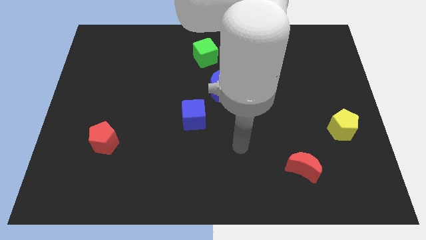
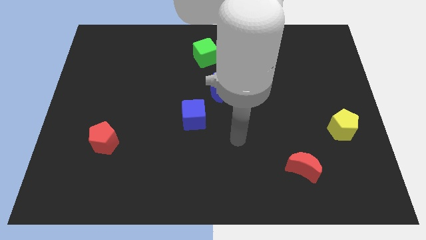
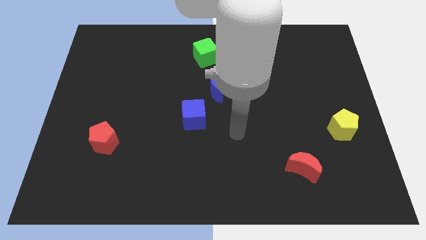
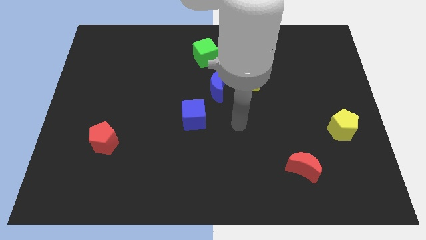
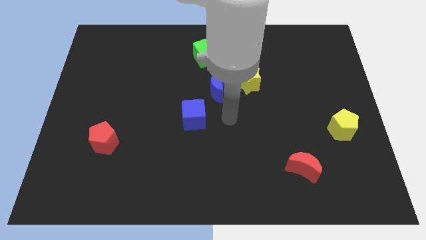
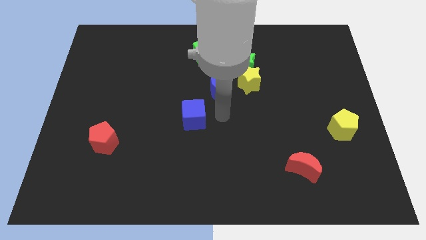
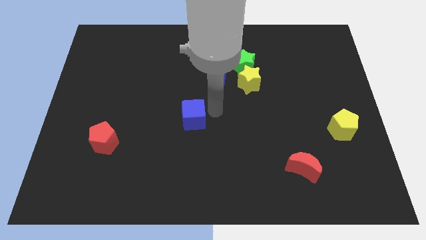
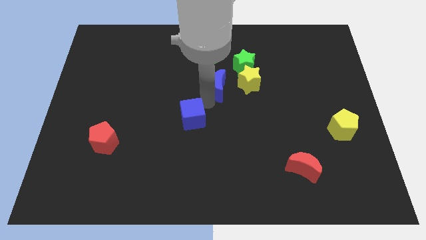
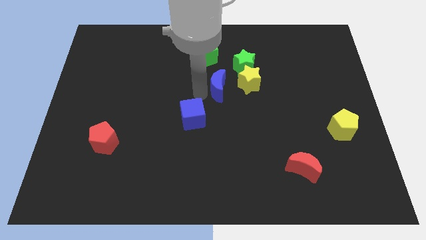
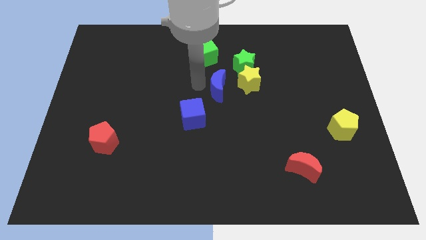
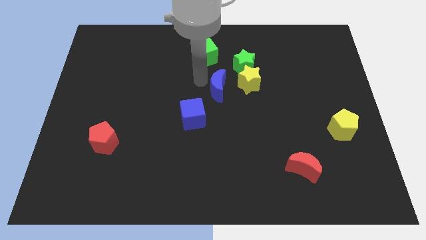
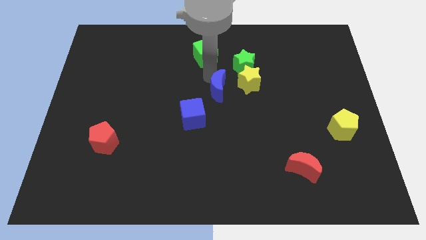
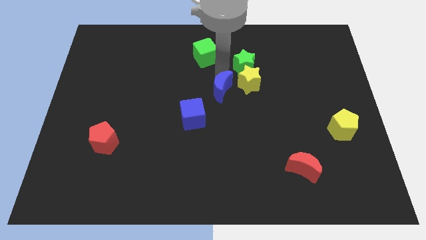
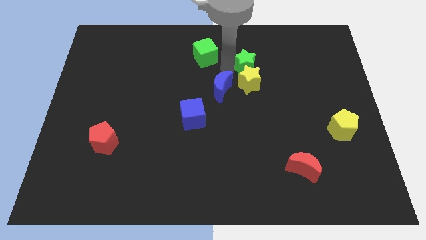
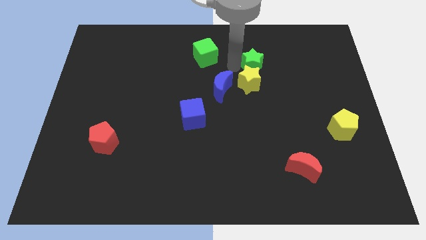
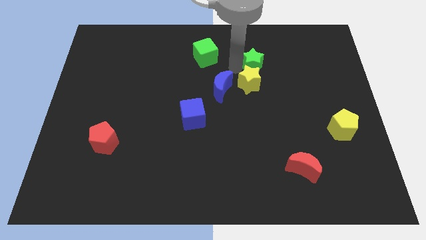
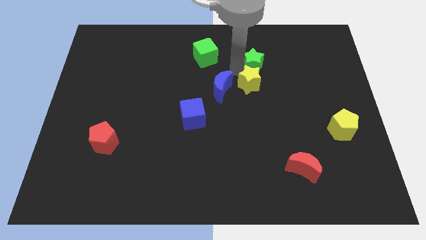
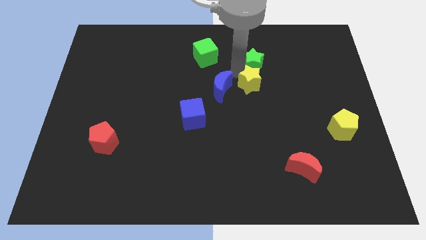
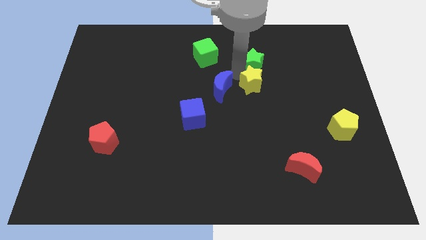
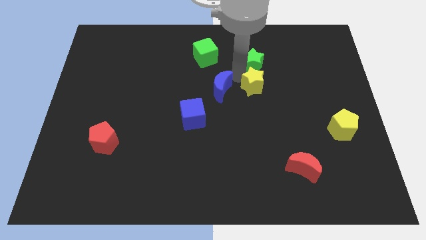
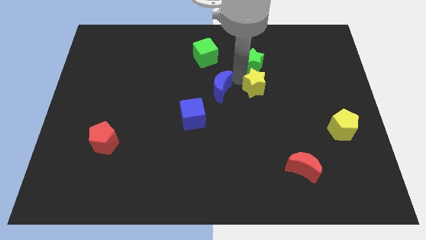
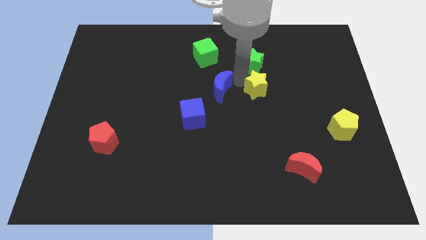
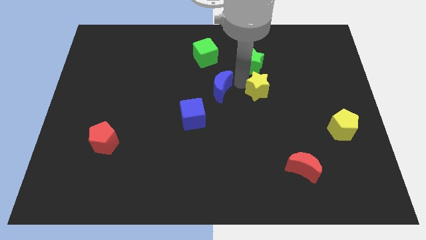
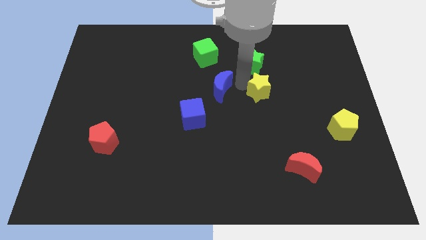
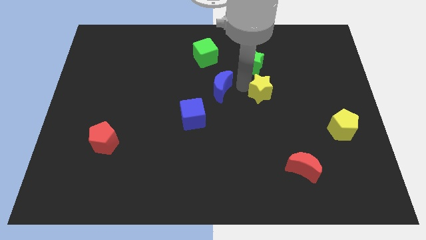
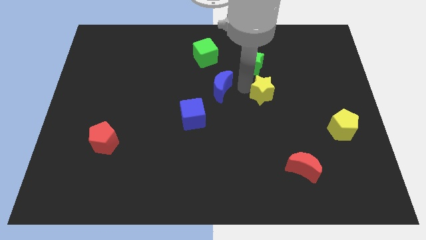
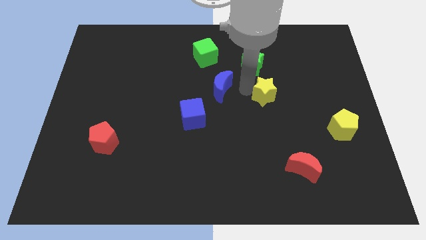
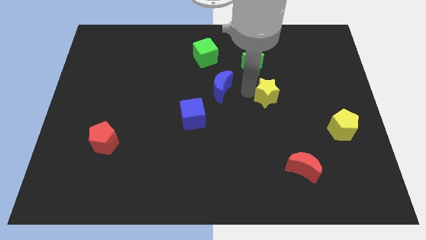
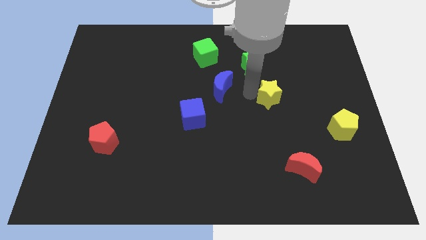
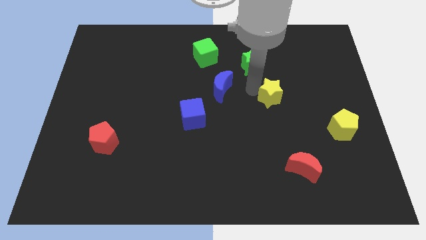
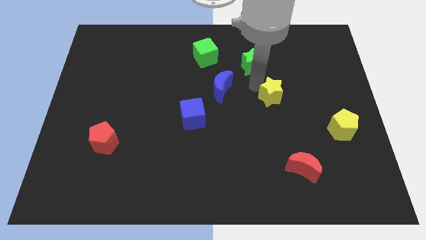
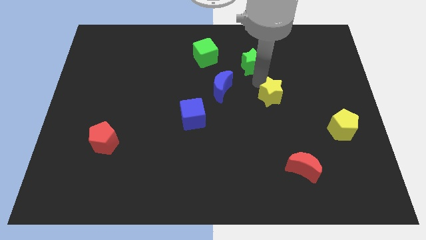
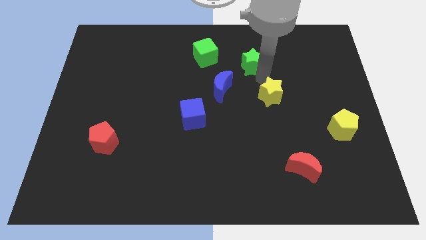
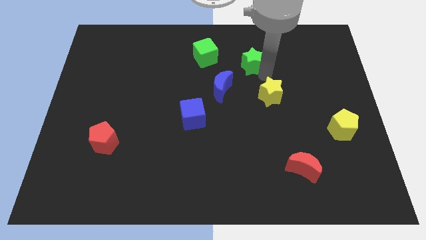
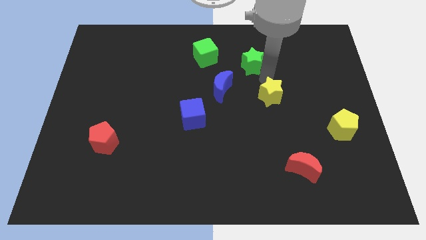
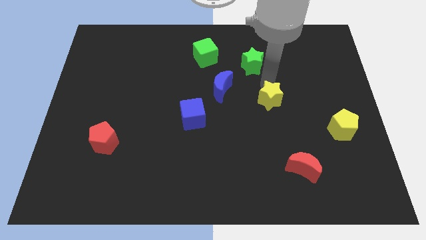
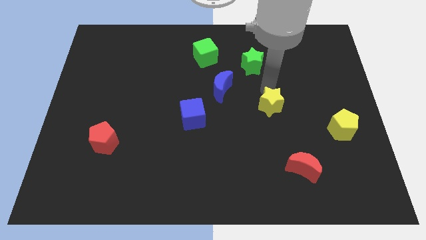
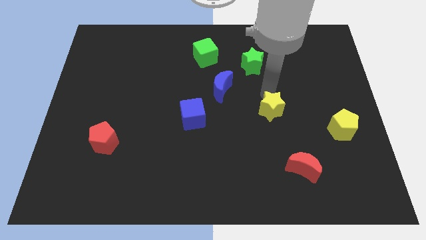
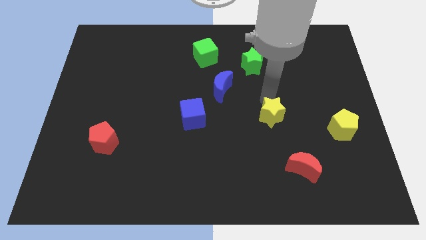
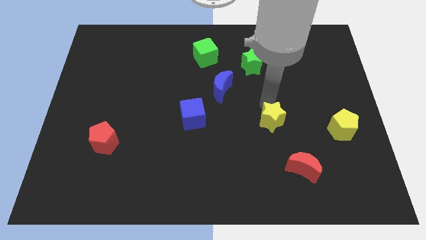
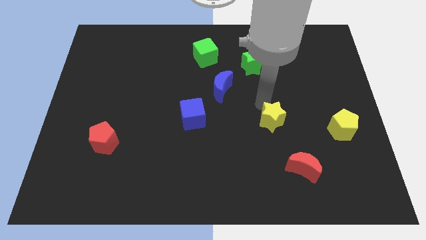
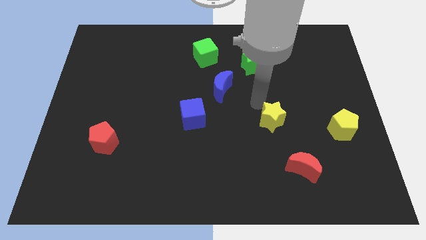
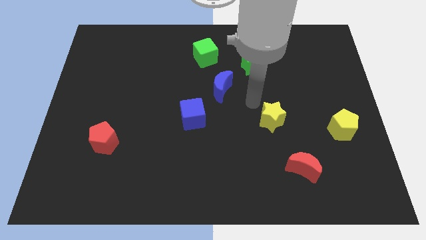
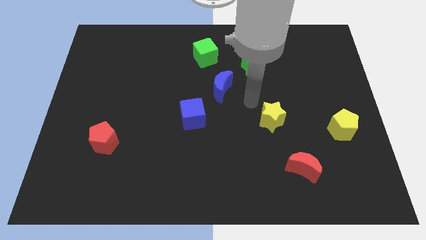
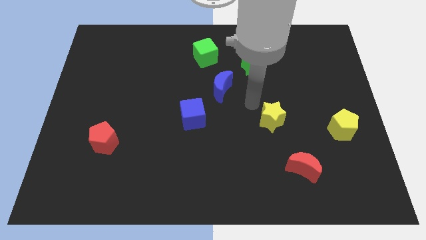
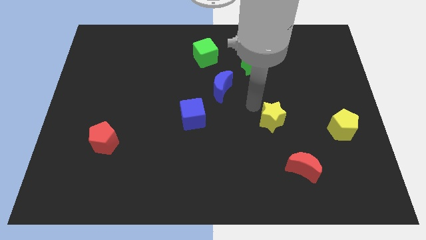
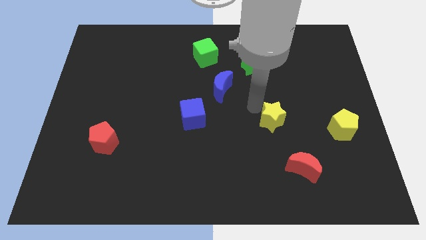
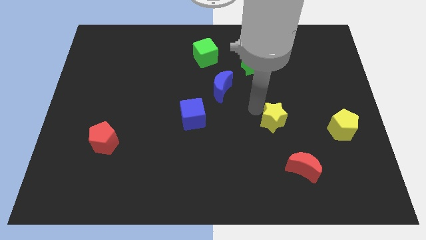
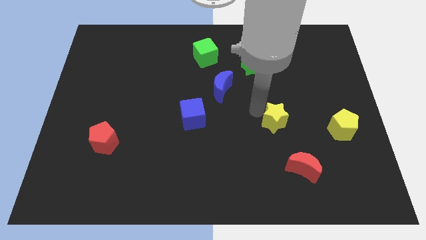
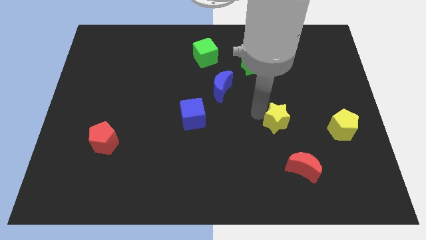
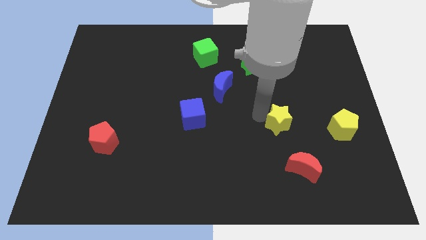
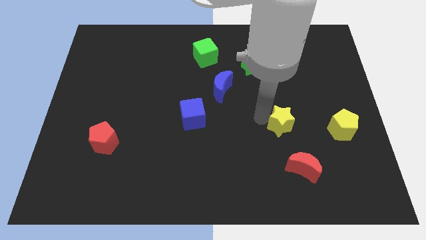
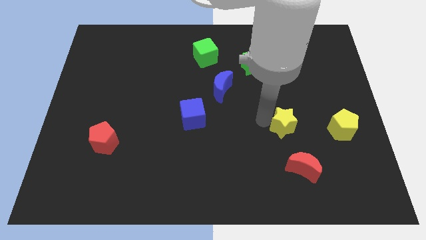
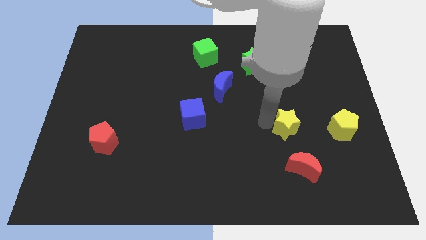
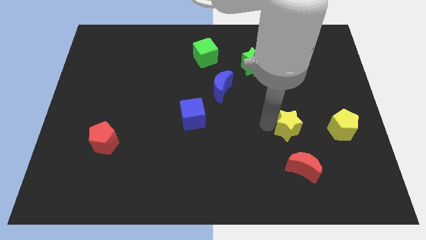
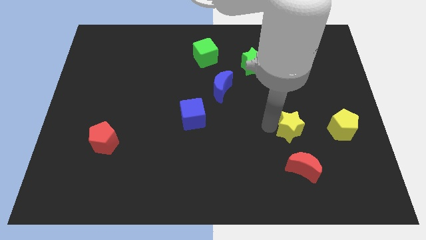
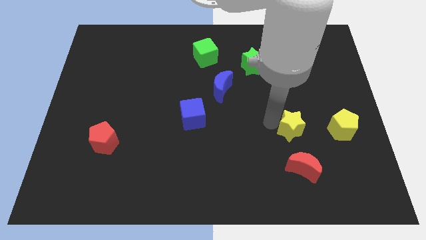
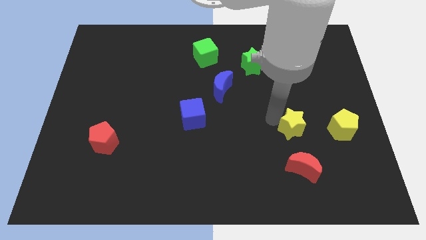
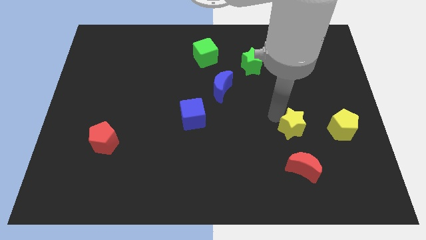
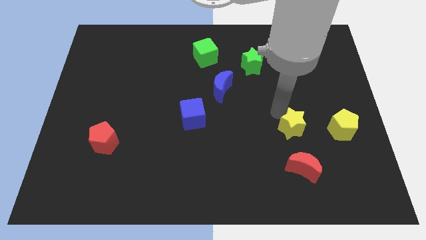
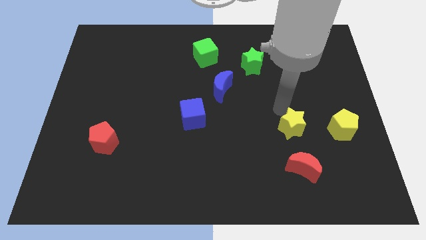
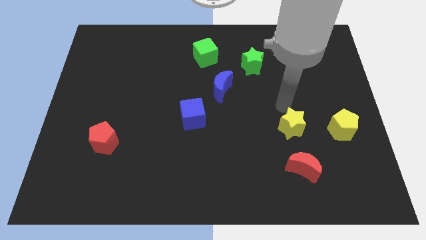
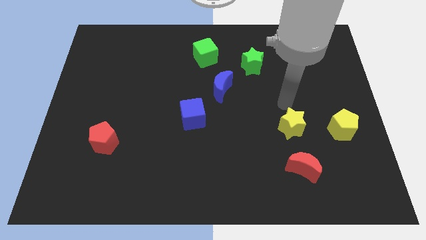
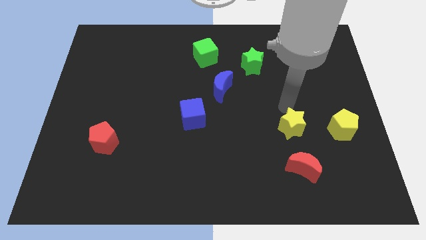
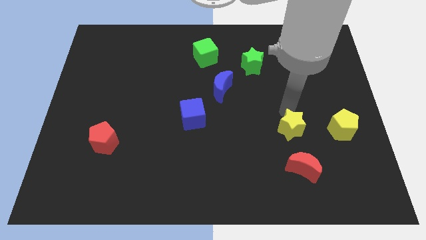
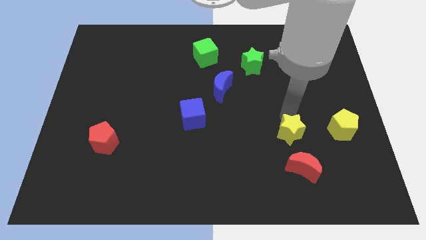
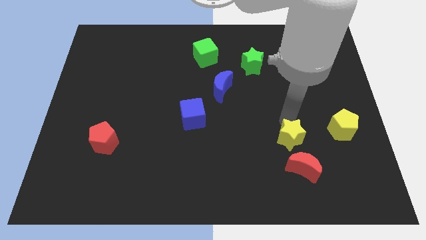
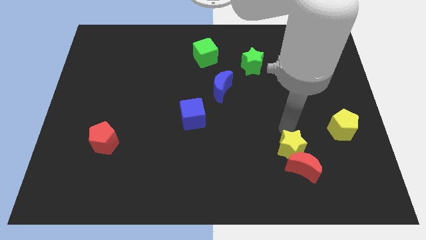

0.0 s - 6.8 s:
slide the yellow star to the red moon
